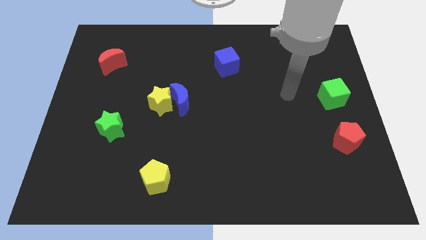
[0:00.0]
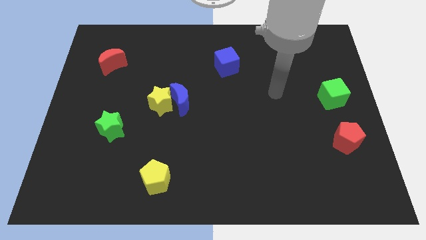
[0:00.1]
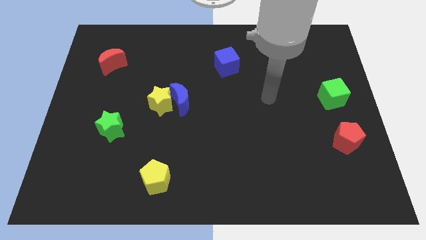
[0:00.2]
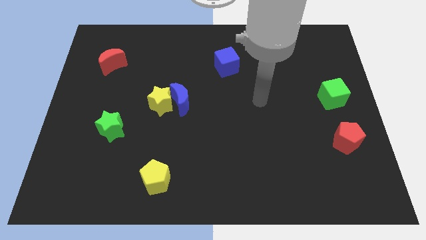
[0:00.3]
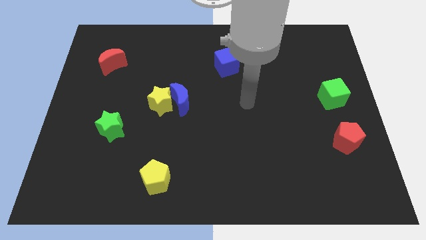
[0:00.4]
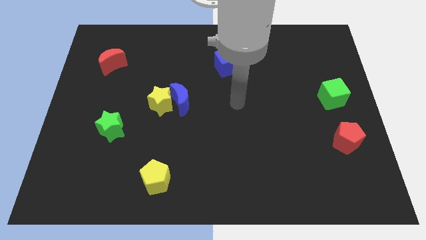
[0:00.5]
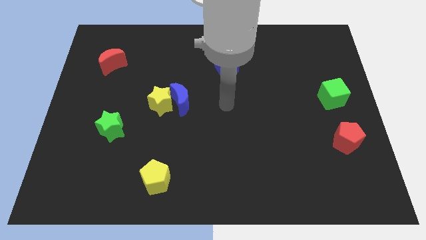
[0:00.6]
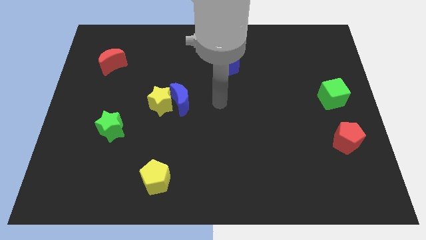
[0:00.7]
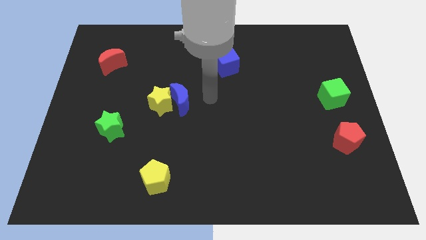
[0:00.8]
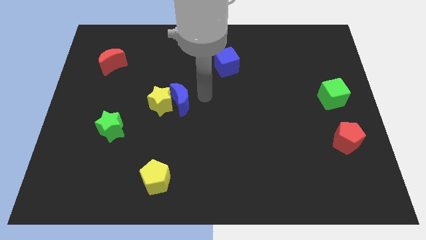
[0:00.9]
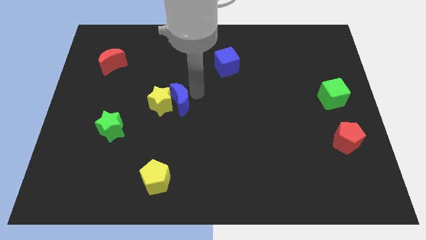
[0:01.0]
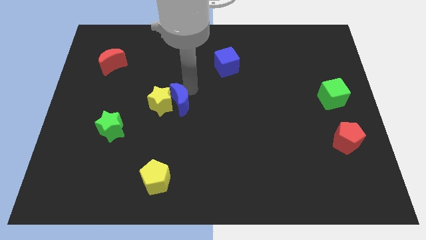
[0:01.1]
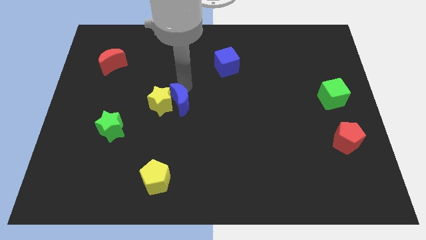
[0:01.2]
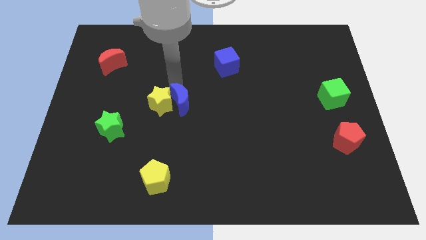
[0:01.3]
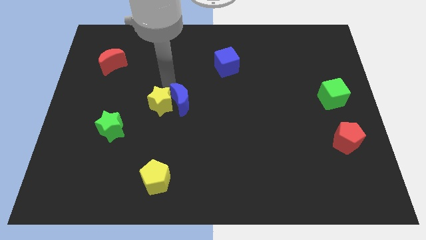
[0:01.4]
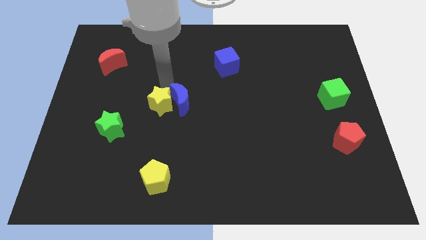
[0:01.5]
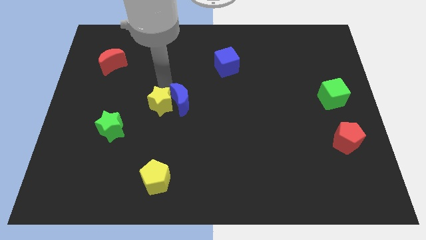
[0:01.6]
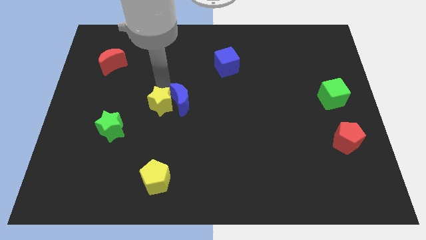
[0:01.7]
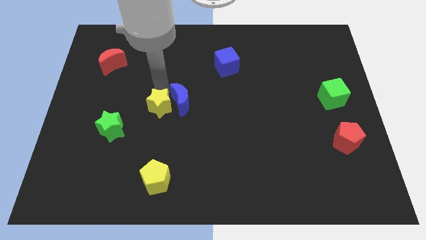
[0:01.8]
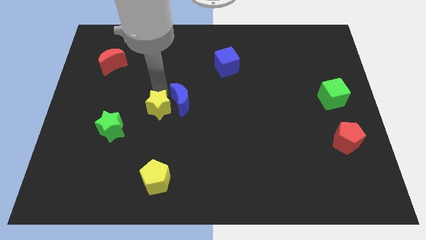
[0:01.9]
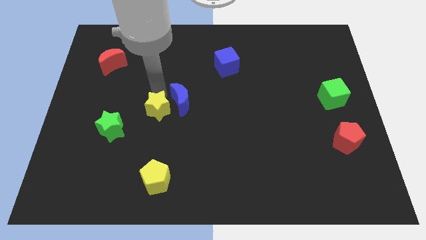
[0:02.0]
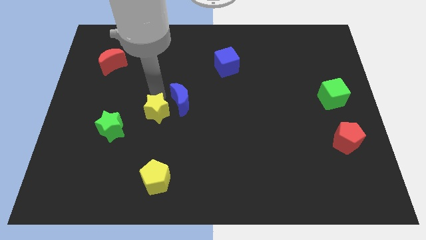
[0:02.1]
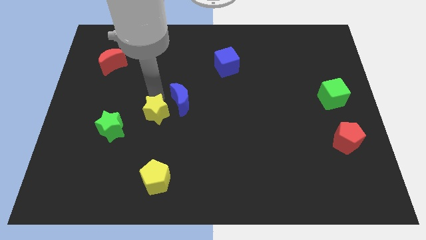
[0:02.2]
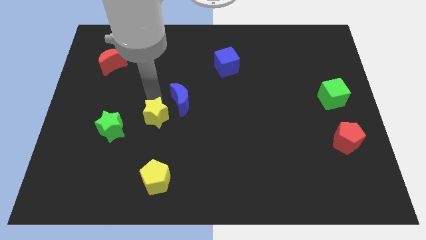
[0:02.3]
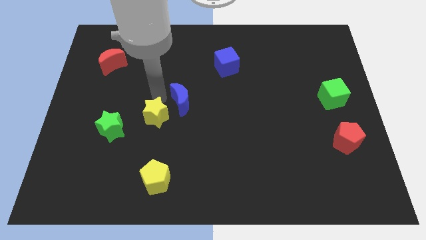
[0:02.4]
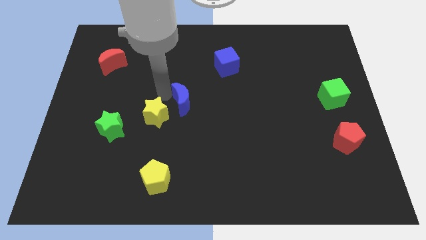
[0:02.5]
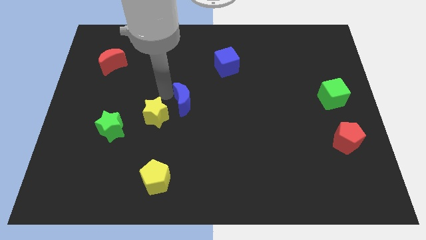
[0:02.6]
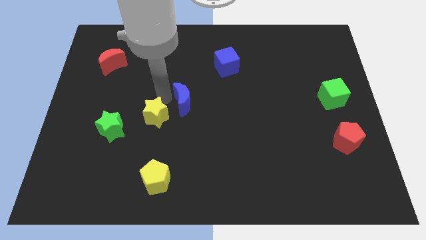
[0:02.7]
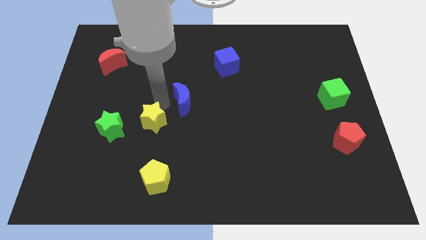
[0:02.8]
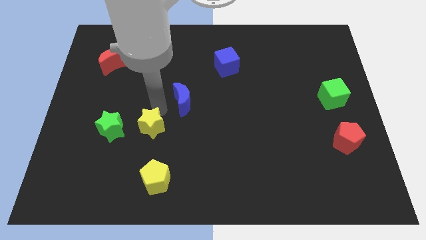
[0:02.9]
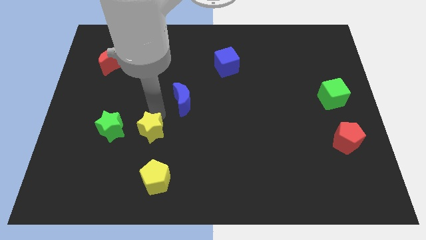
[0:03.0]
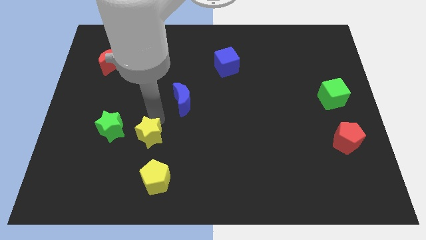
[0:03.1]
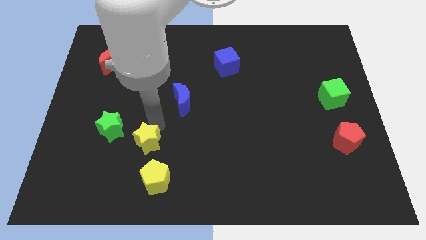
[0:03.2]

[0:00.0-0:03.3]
slightly move the yellow star diagonally down and to the left

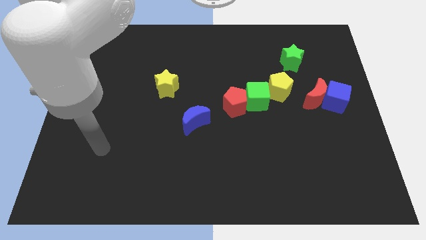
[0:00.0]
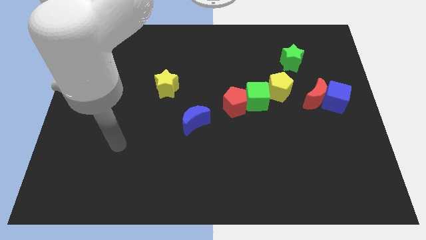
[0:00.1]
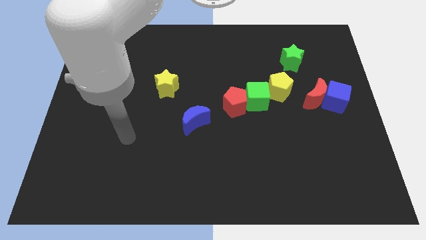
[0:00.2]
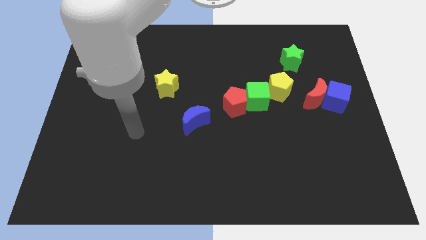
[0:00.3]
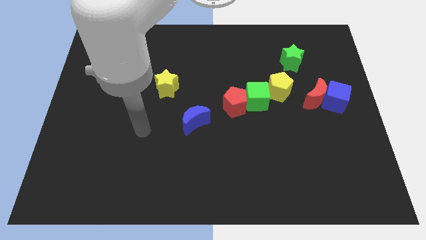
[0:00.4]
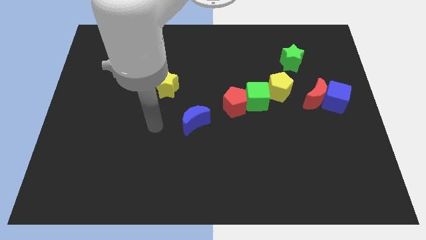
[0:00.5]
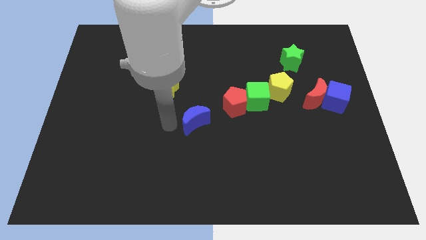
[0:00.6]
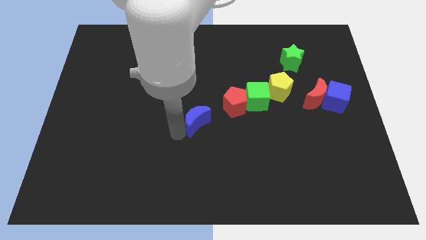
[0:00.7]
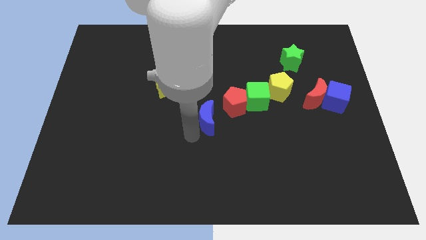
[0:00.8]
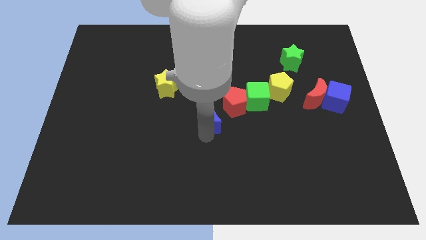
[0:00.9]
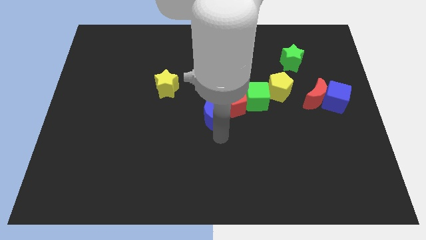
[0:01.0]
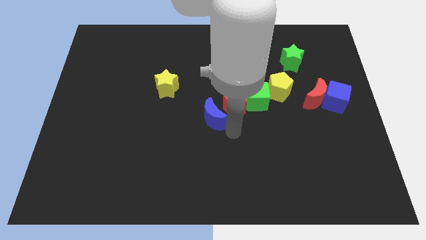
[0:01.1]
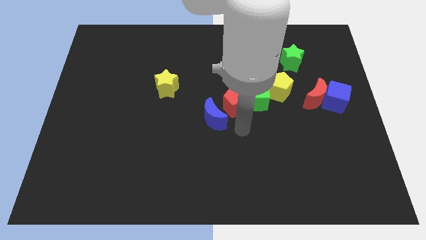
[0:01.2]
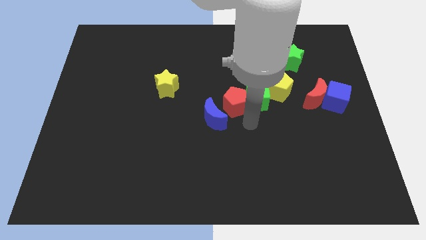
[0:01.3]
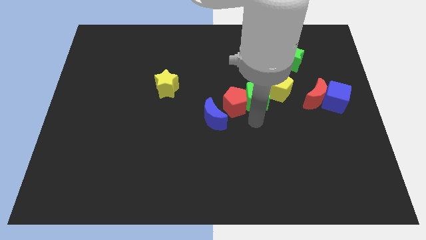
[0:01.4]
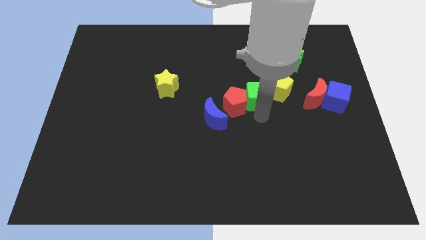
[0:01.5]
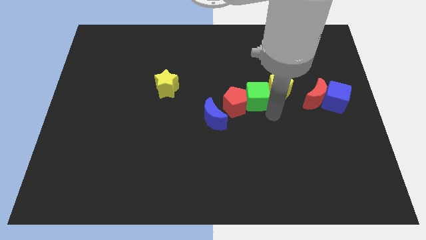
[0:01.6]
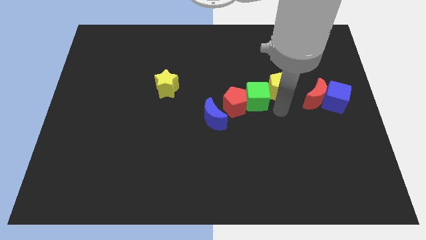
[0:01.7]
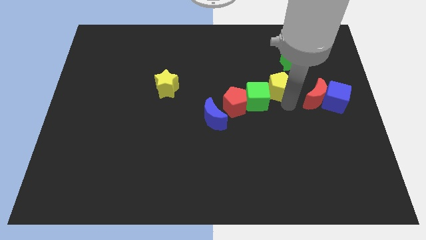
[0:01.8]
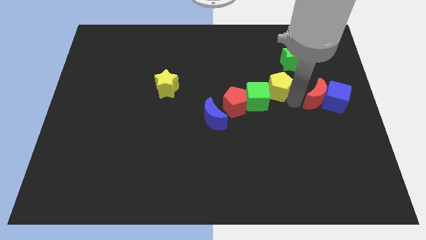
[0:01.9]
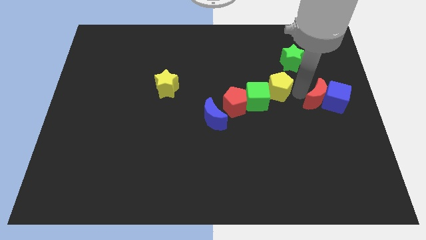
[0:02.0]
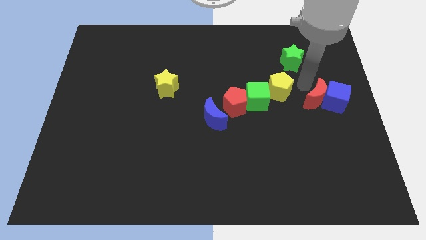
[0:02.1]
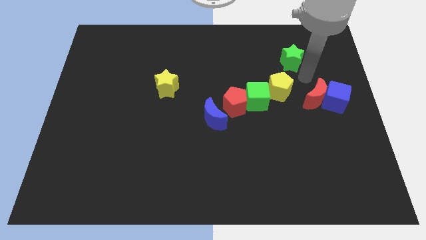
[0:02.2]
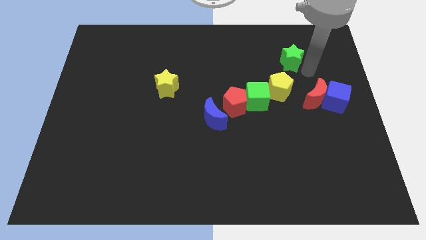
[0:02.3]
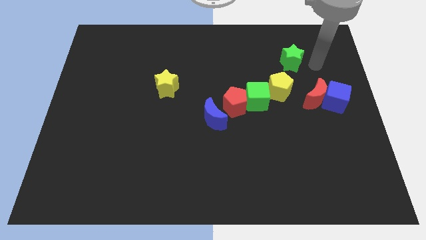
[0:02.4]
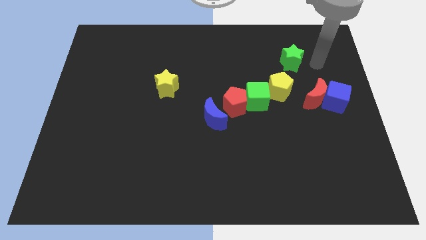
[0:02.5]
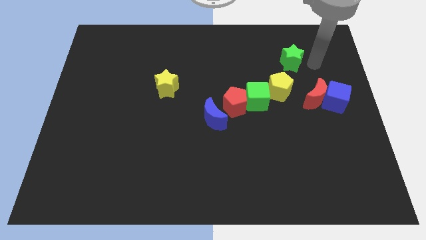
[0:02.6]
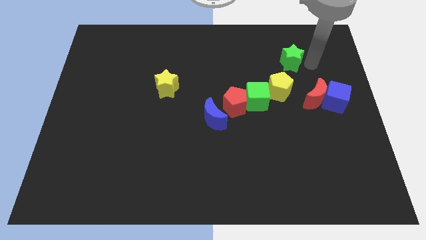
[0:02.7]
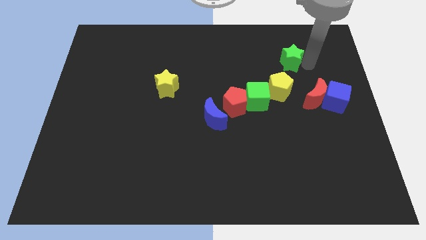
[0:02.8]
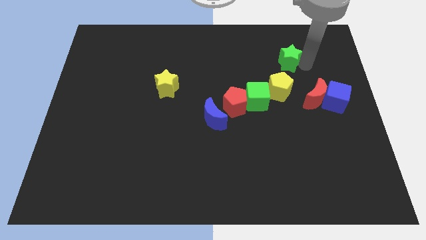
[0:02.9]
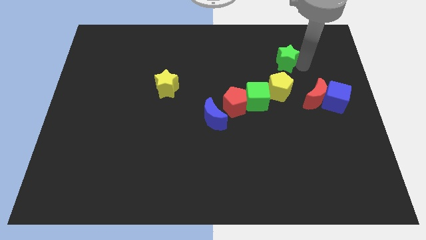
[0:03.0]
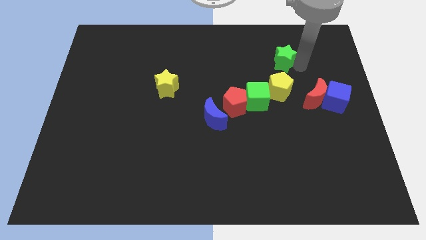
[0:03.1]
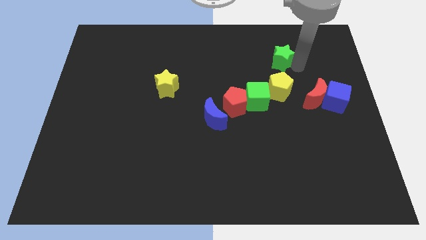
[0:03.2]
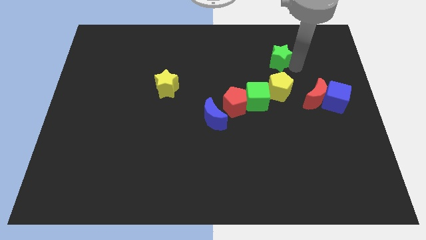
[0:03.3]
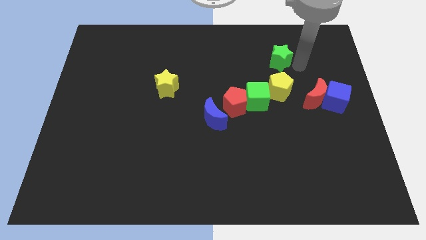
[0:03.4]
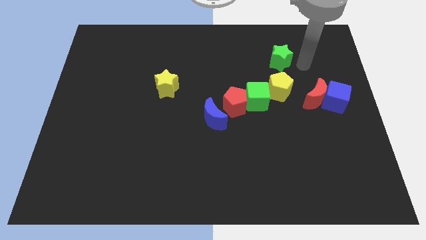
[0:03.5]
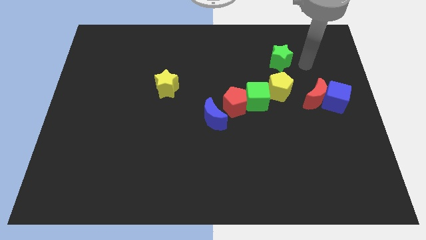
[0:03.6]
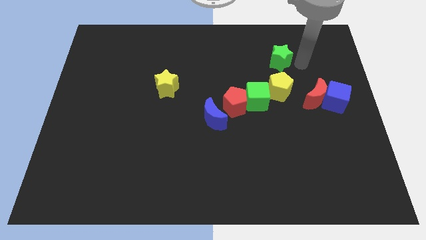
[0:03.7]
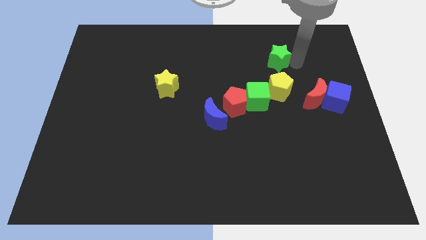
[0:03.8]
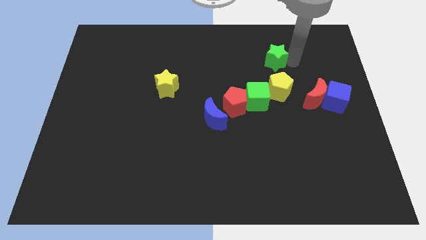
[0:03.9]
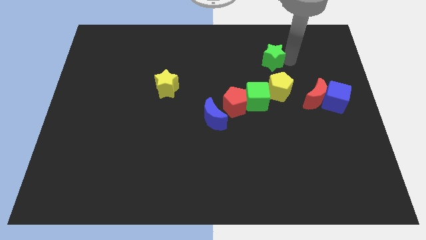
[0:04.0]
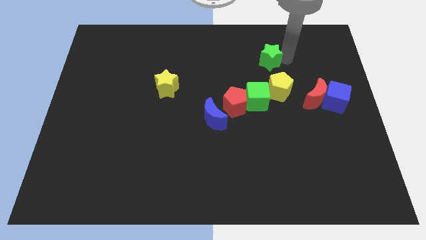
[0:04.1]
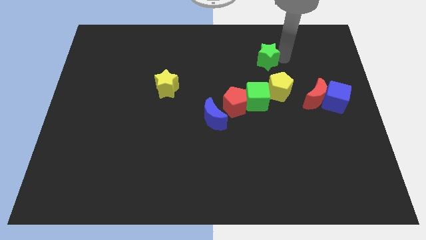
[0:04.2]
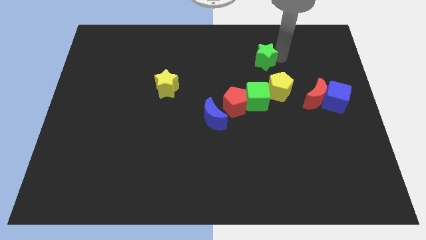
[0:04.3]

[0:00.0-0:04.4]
slide the green star a bit to the left

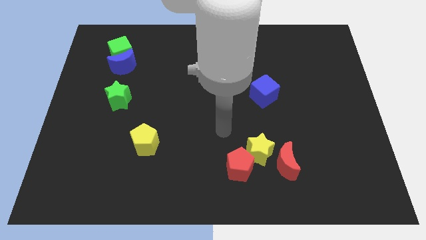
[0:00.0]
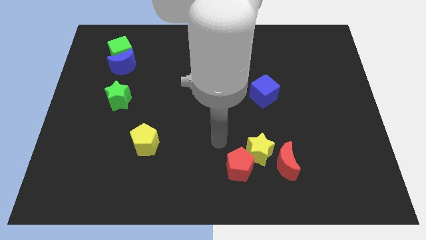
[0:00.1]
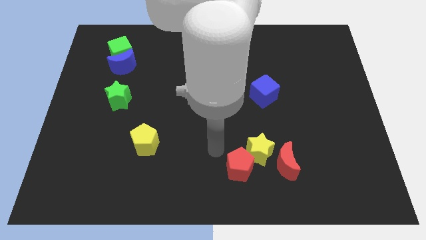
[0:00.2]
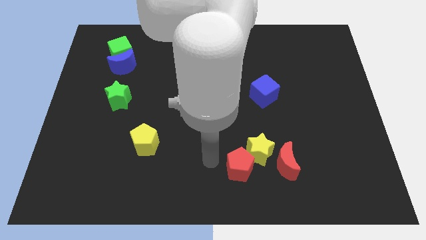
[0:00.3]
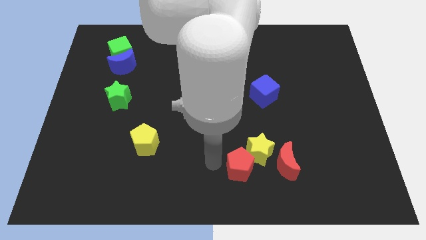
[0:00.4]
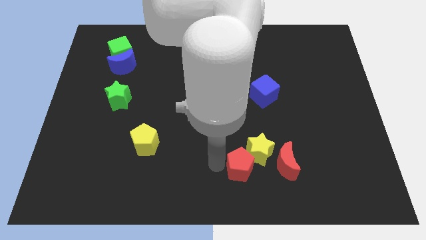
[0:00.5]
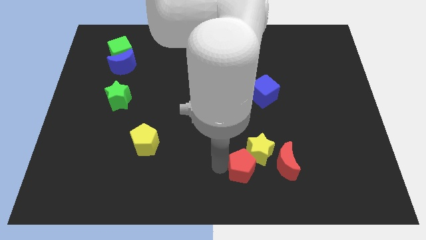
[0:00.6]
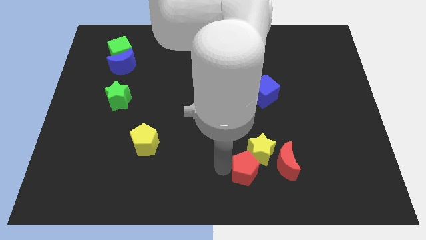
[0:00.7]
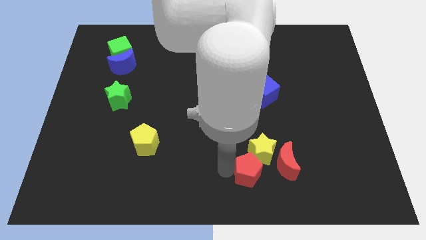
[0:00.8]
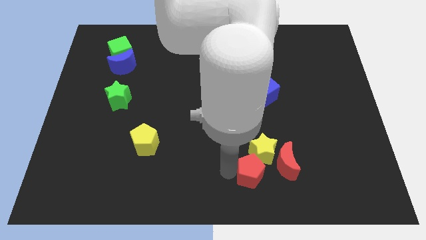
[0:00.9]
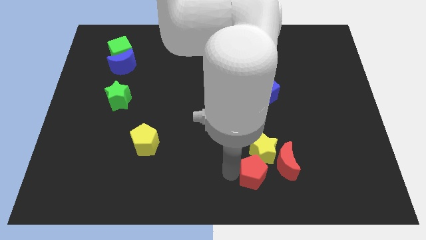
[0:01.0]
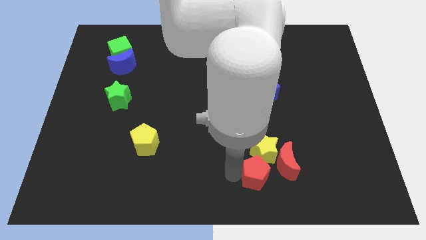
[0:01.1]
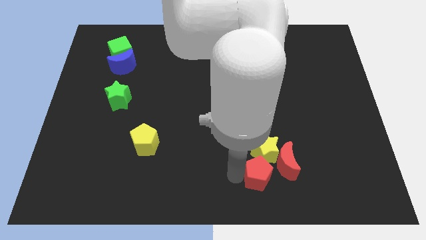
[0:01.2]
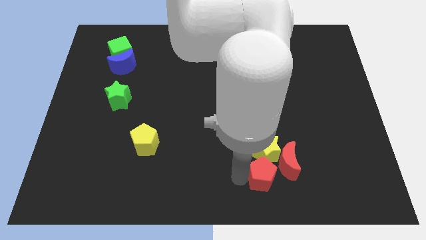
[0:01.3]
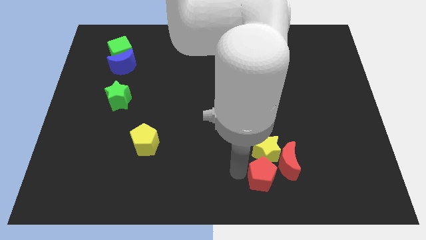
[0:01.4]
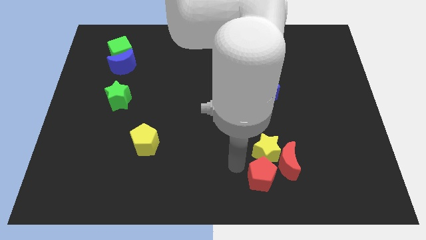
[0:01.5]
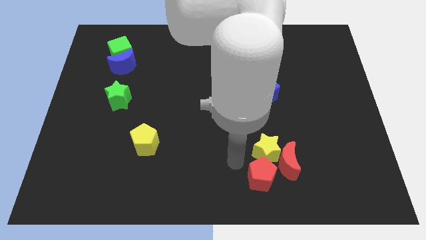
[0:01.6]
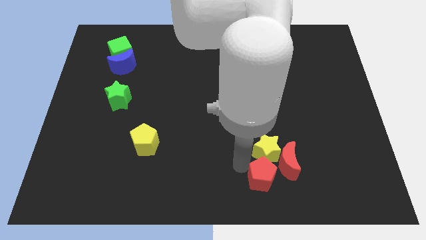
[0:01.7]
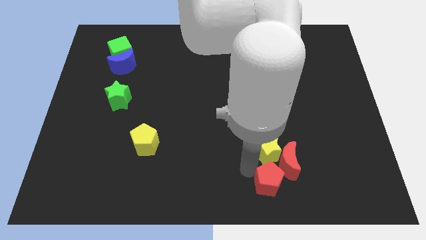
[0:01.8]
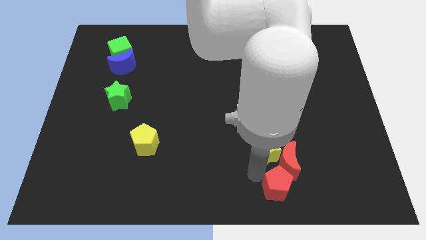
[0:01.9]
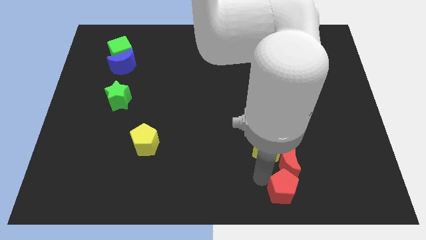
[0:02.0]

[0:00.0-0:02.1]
push the red pentagon to the right a little
